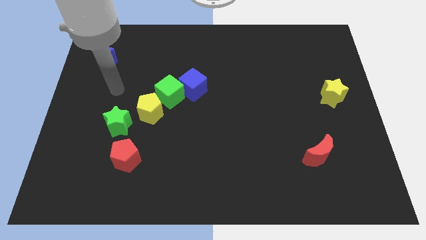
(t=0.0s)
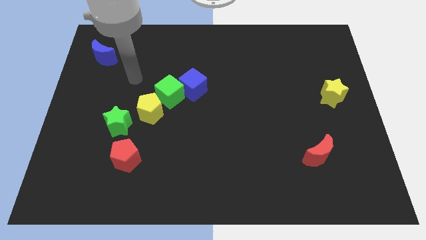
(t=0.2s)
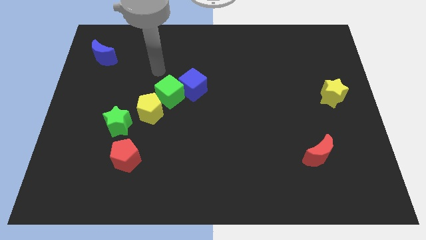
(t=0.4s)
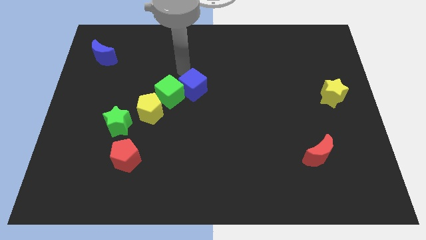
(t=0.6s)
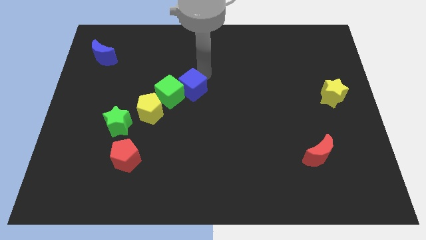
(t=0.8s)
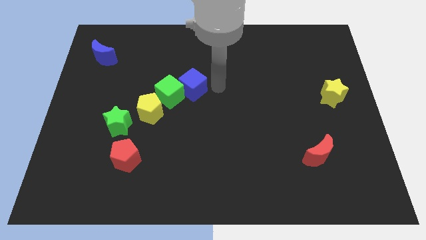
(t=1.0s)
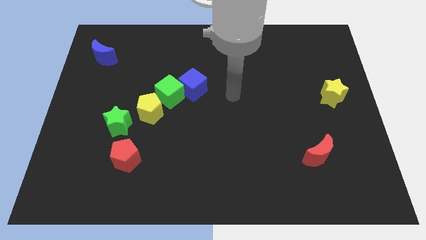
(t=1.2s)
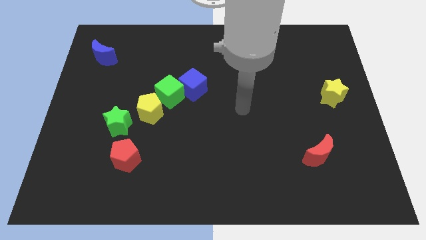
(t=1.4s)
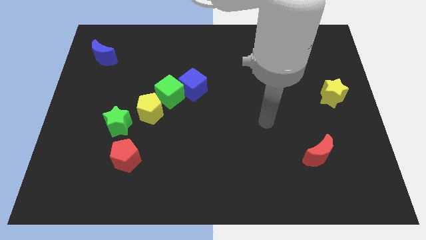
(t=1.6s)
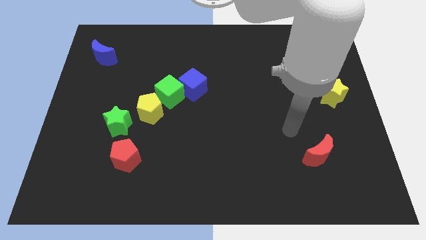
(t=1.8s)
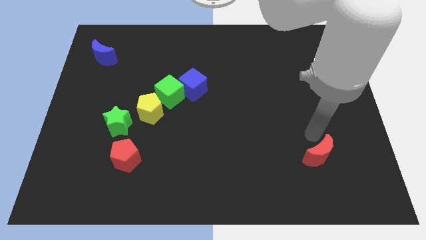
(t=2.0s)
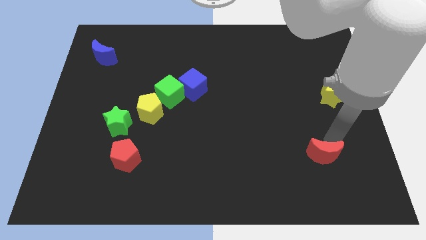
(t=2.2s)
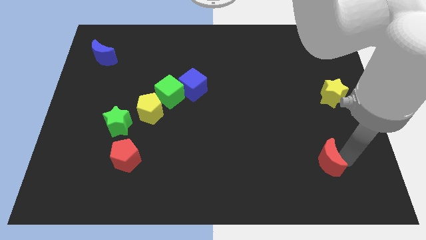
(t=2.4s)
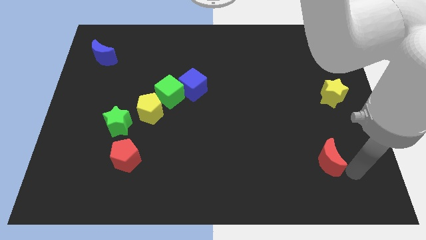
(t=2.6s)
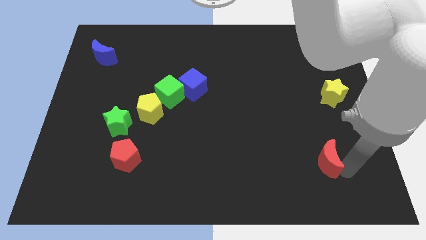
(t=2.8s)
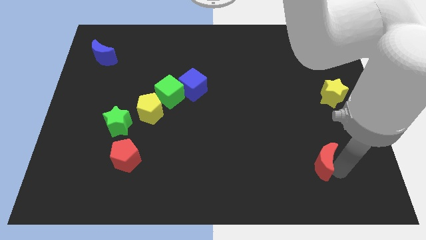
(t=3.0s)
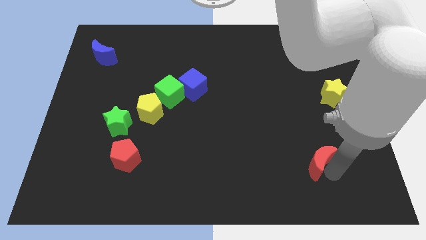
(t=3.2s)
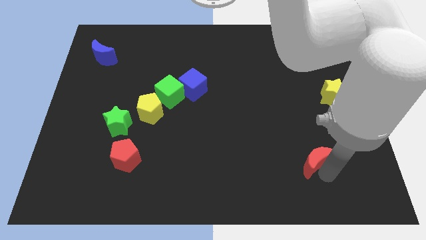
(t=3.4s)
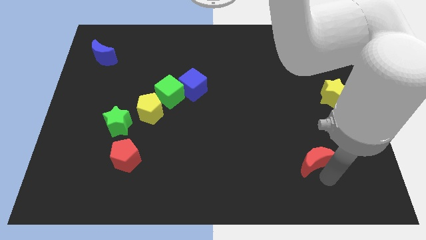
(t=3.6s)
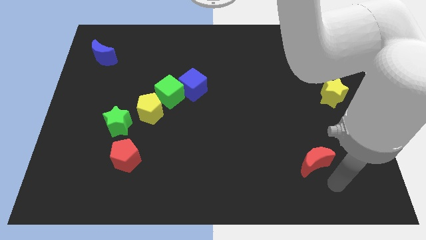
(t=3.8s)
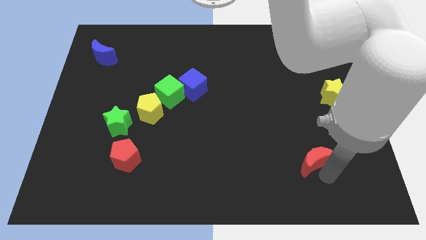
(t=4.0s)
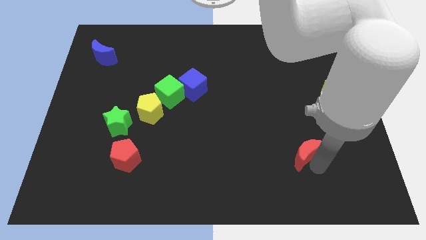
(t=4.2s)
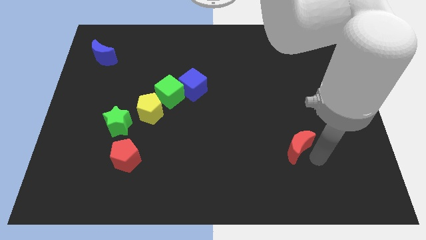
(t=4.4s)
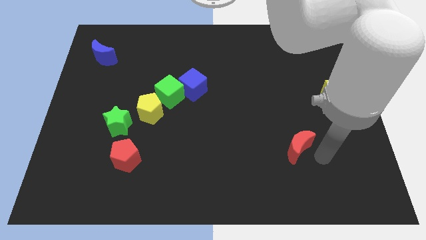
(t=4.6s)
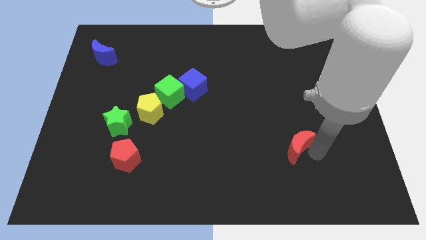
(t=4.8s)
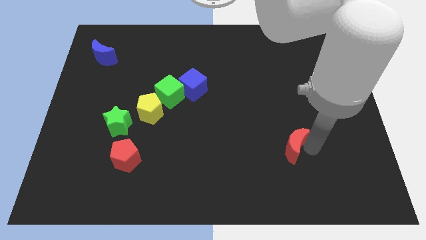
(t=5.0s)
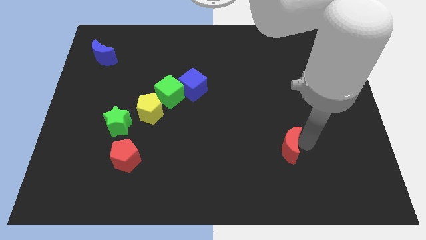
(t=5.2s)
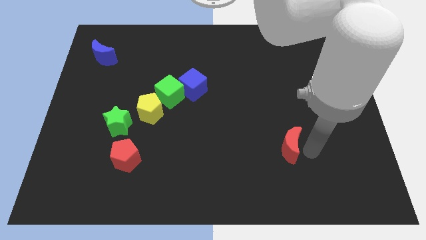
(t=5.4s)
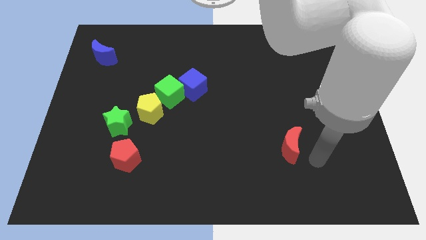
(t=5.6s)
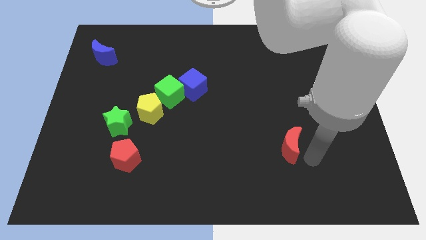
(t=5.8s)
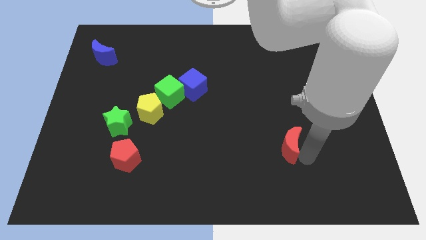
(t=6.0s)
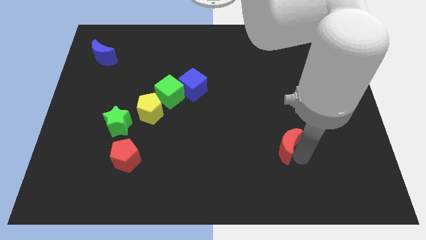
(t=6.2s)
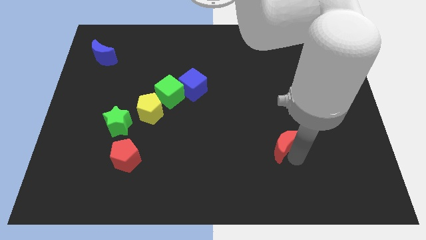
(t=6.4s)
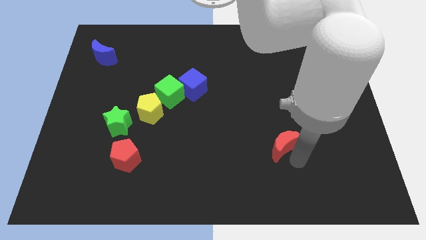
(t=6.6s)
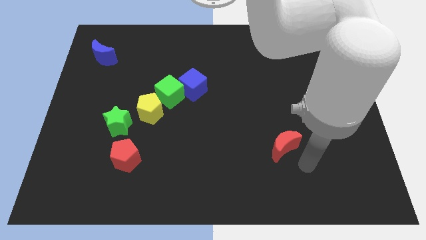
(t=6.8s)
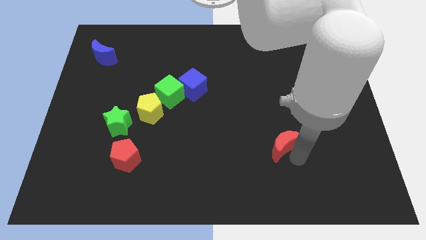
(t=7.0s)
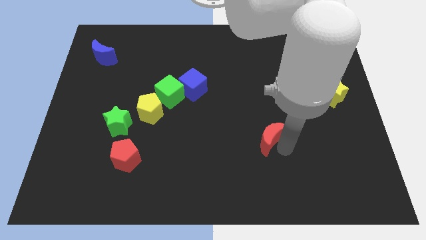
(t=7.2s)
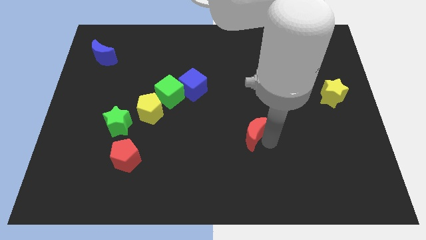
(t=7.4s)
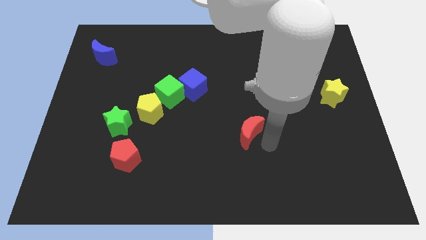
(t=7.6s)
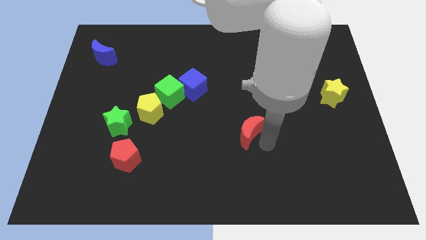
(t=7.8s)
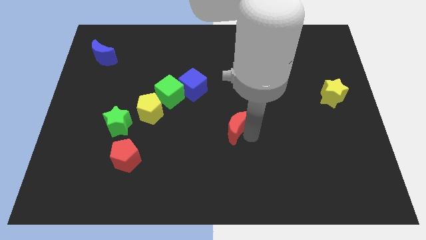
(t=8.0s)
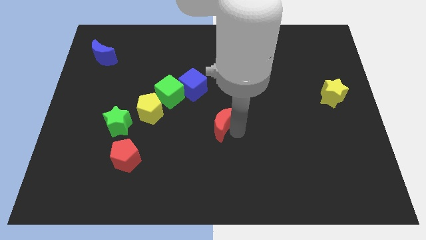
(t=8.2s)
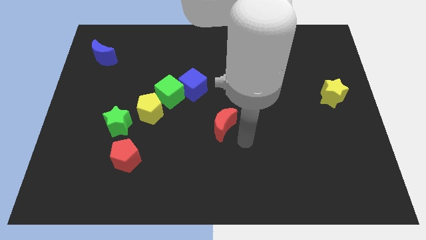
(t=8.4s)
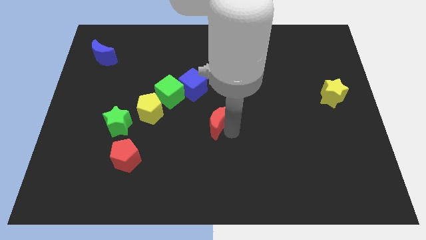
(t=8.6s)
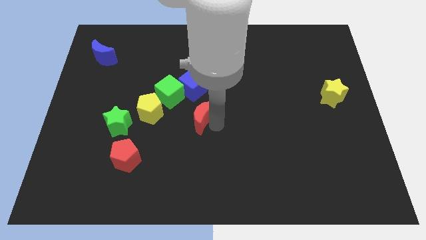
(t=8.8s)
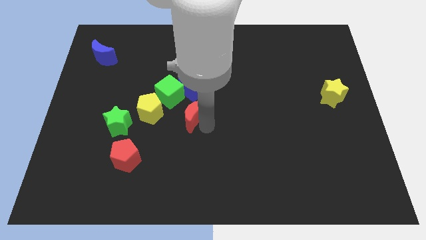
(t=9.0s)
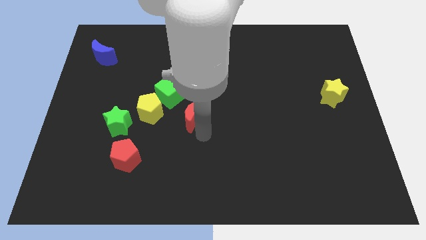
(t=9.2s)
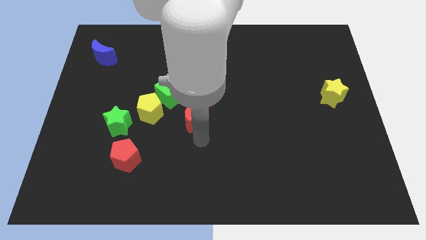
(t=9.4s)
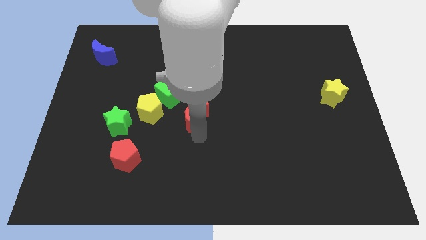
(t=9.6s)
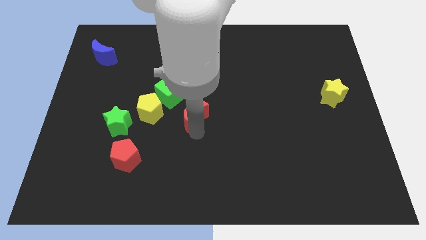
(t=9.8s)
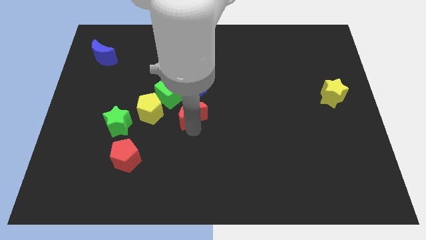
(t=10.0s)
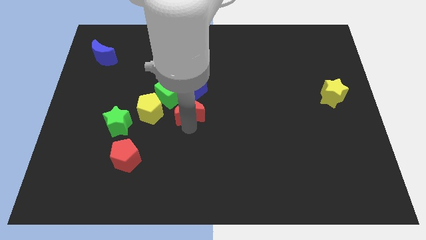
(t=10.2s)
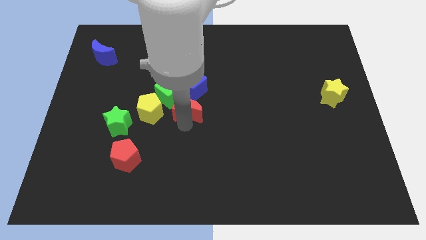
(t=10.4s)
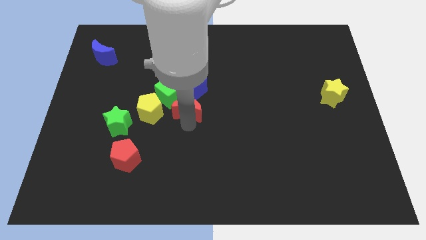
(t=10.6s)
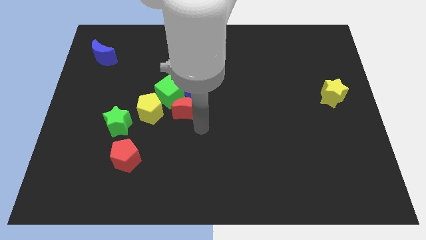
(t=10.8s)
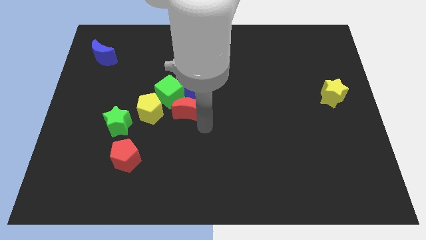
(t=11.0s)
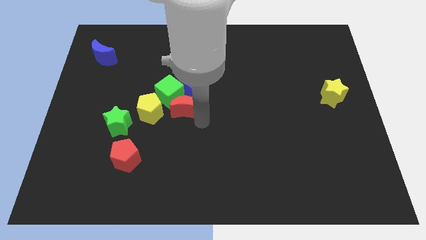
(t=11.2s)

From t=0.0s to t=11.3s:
move the red moon next to the green cube

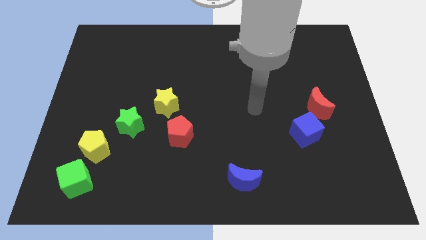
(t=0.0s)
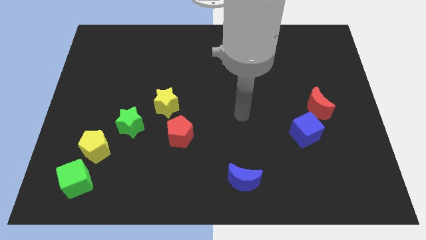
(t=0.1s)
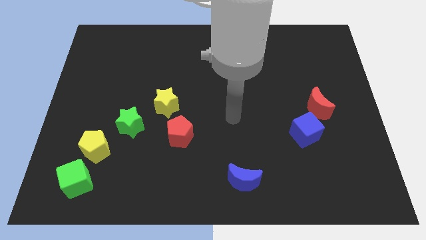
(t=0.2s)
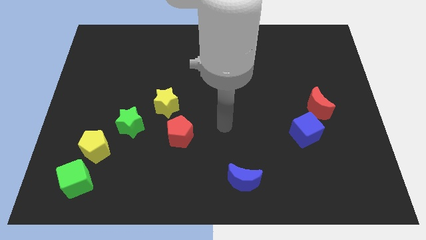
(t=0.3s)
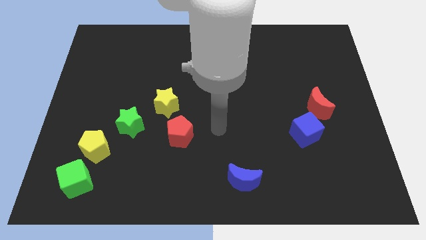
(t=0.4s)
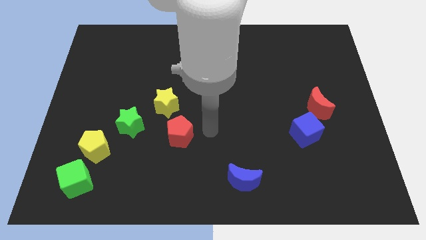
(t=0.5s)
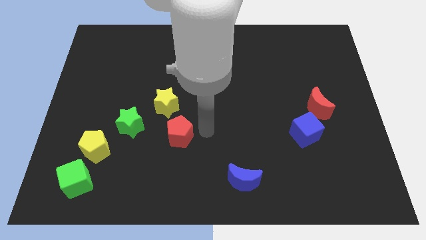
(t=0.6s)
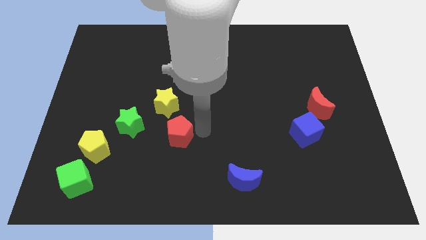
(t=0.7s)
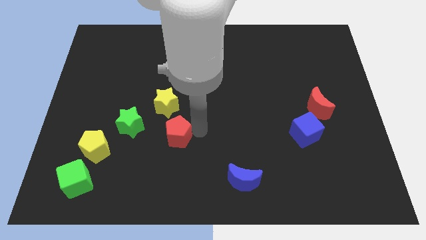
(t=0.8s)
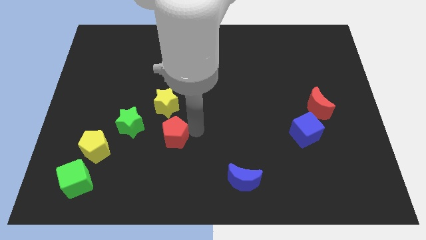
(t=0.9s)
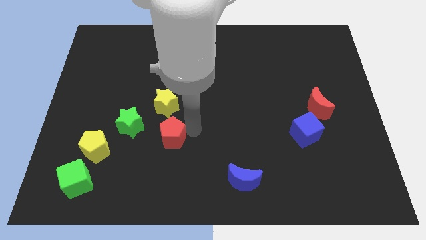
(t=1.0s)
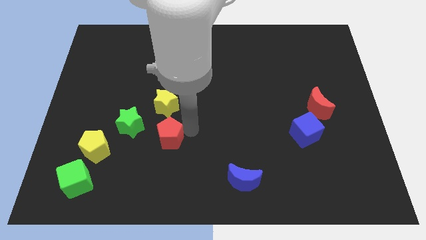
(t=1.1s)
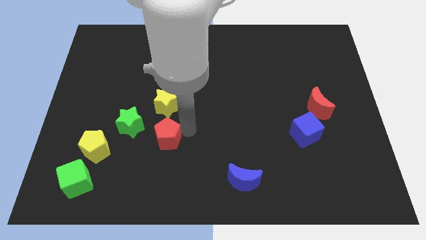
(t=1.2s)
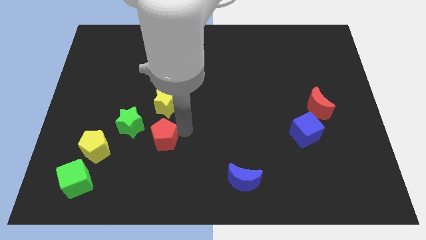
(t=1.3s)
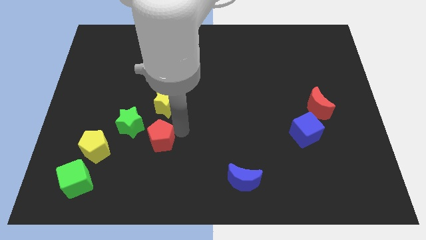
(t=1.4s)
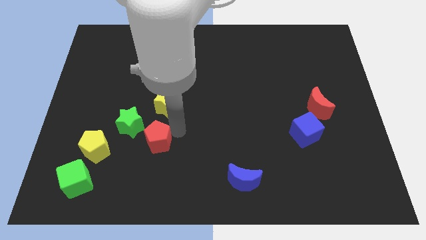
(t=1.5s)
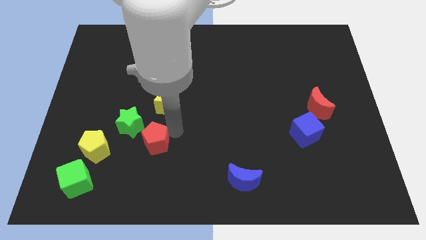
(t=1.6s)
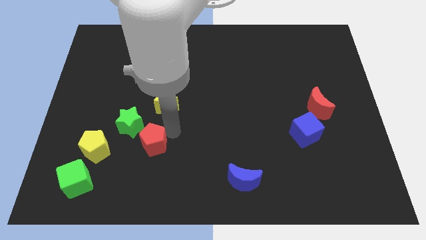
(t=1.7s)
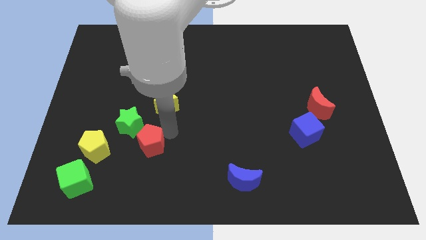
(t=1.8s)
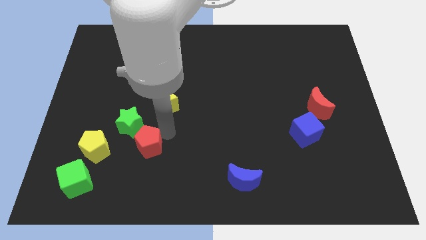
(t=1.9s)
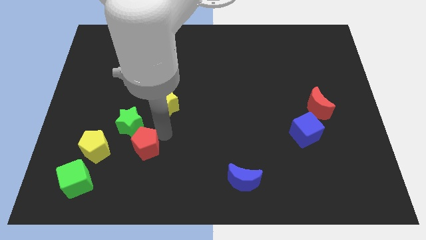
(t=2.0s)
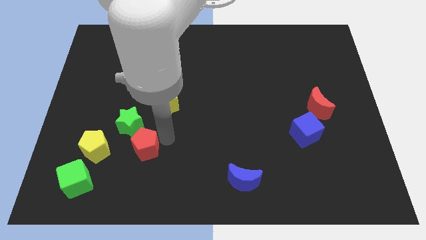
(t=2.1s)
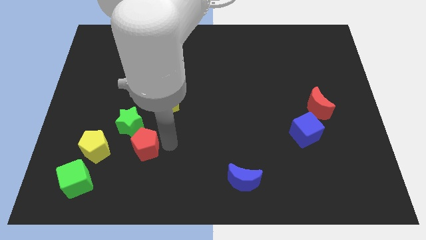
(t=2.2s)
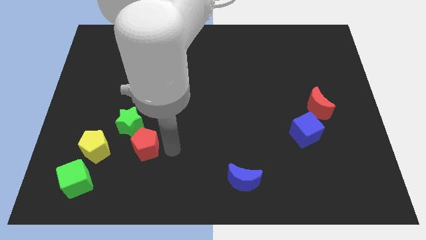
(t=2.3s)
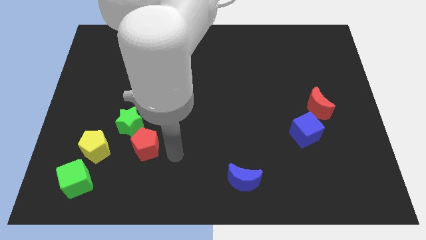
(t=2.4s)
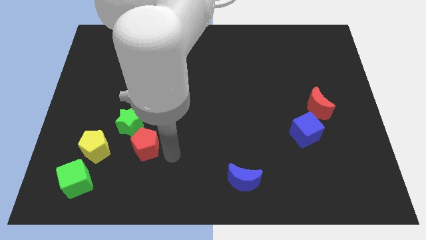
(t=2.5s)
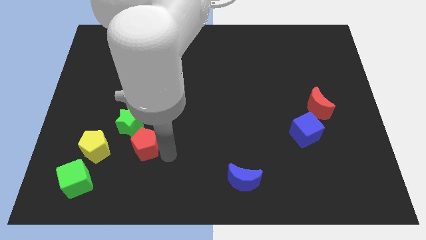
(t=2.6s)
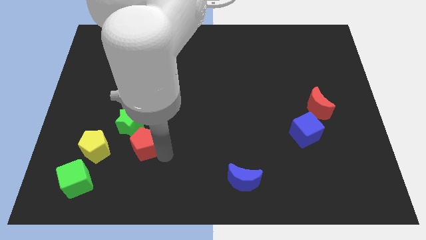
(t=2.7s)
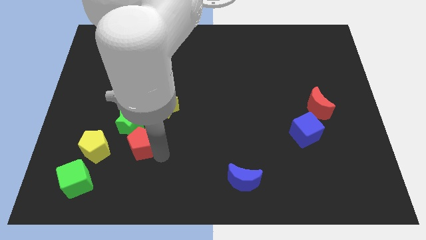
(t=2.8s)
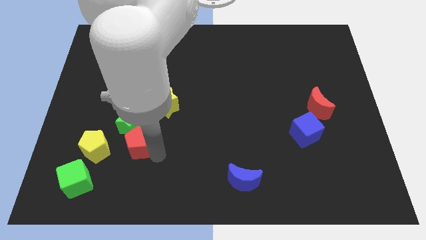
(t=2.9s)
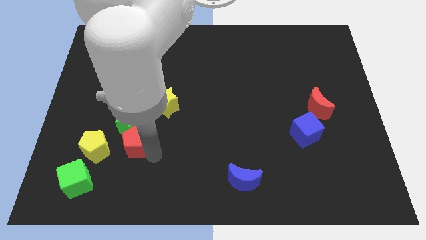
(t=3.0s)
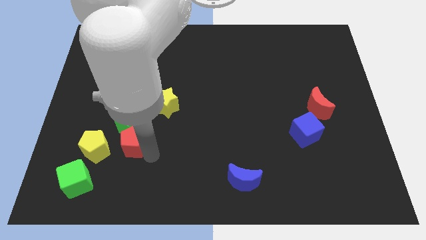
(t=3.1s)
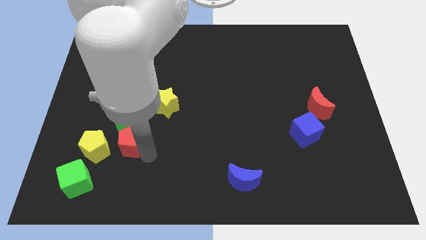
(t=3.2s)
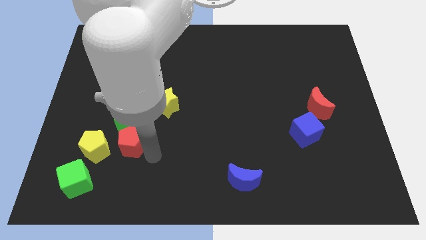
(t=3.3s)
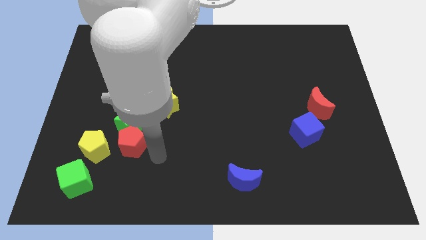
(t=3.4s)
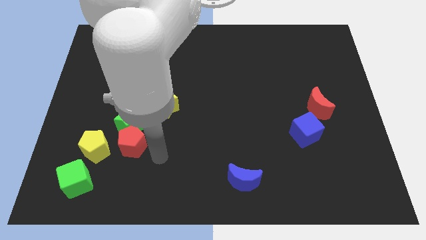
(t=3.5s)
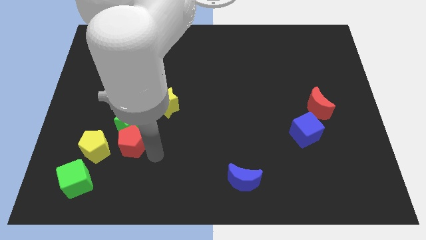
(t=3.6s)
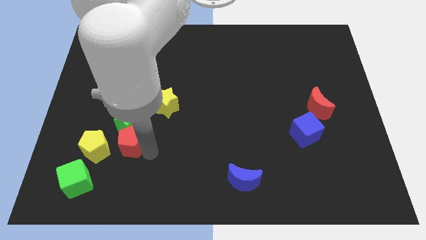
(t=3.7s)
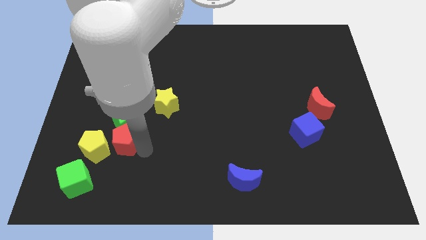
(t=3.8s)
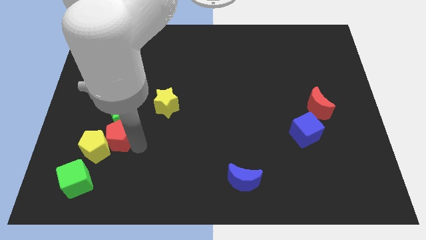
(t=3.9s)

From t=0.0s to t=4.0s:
move the red pentagon towards the yellow pentagon
